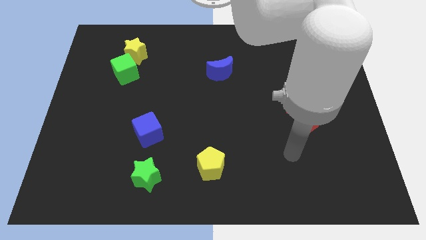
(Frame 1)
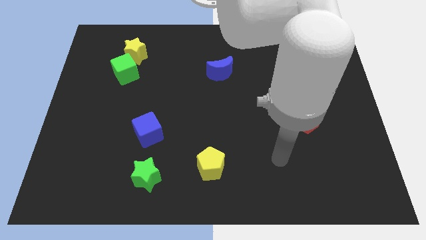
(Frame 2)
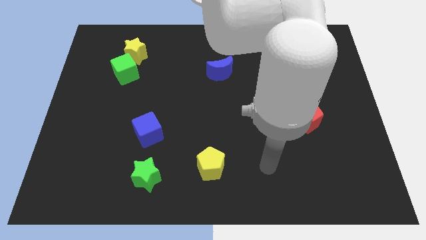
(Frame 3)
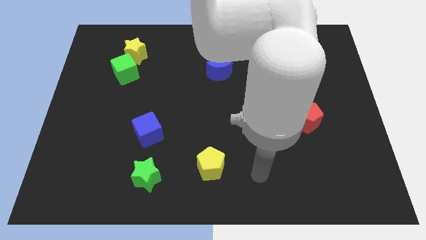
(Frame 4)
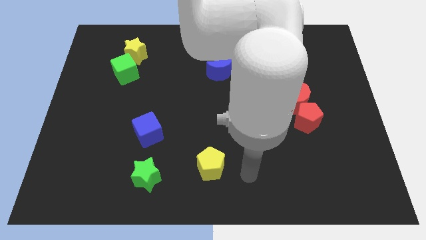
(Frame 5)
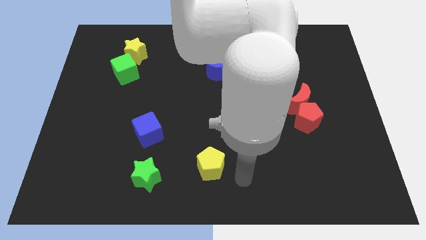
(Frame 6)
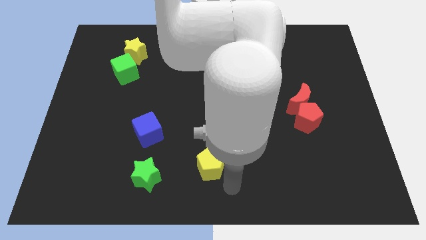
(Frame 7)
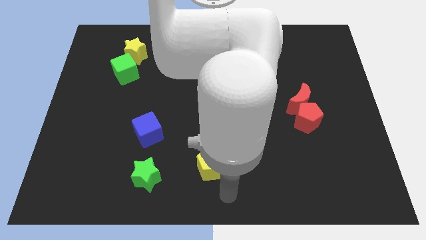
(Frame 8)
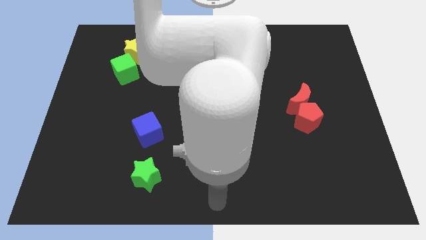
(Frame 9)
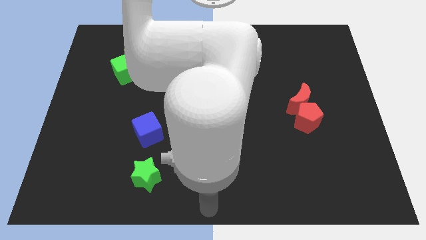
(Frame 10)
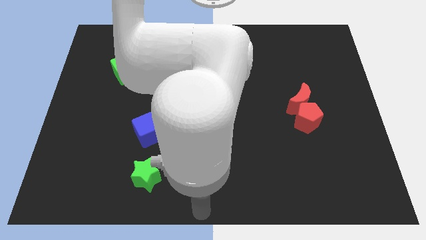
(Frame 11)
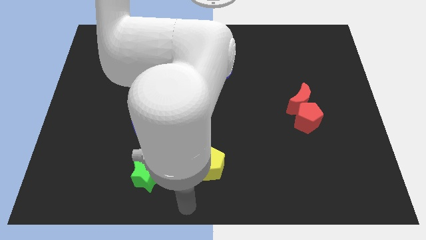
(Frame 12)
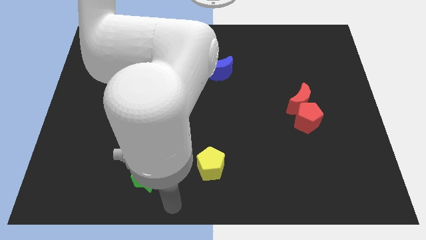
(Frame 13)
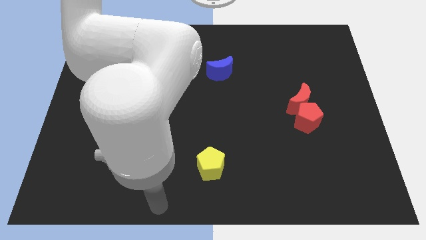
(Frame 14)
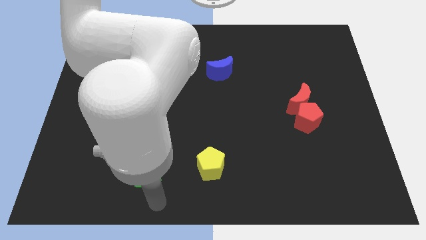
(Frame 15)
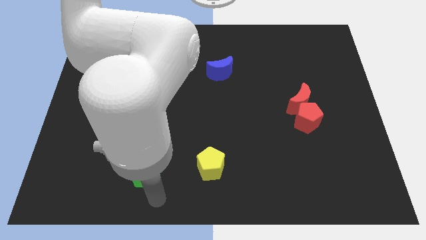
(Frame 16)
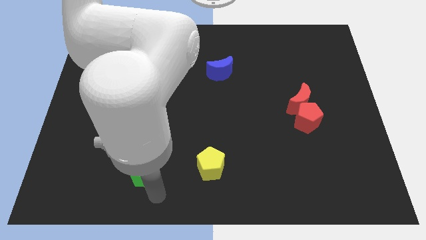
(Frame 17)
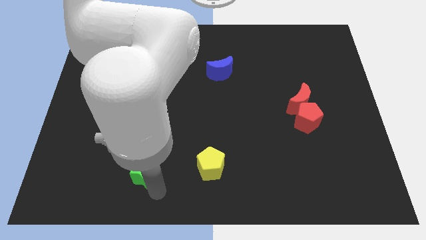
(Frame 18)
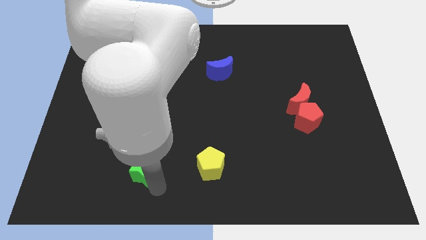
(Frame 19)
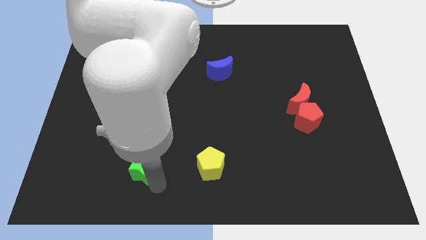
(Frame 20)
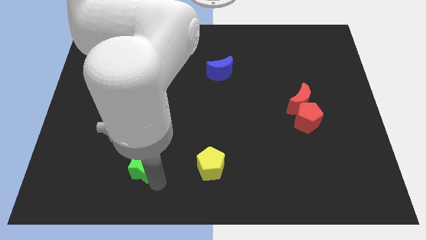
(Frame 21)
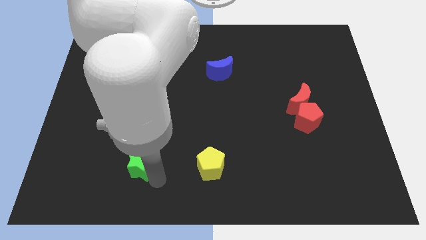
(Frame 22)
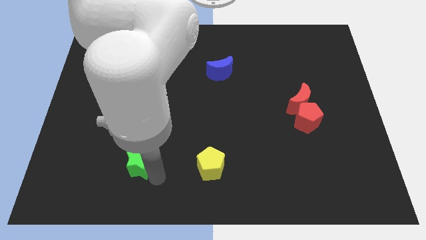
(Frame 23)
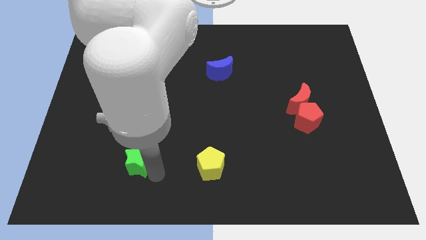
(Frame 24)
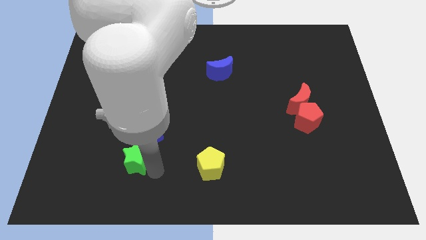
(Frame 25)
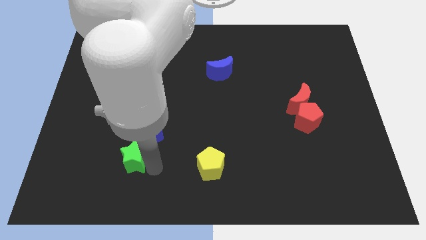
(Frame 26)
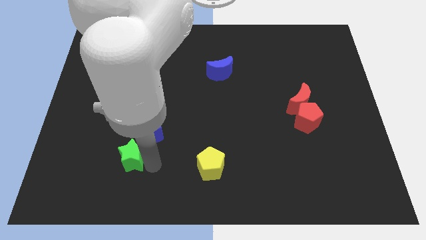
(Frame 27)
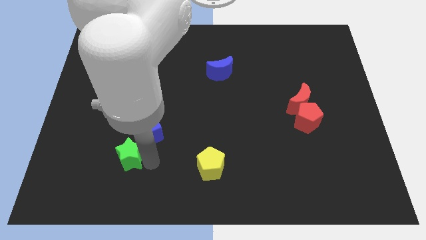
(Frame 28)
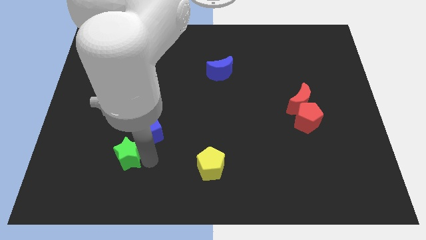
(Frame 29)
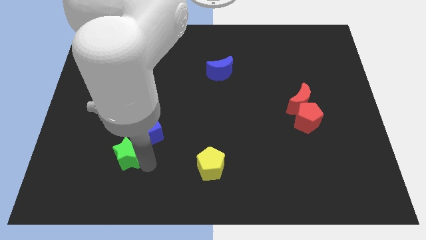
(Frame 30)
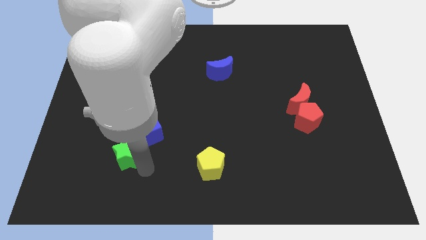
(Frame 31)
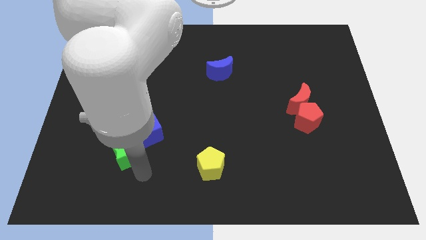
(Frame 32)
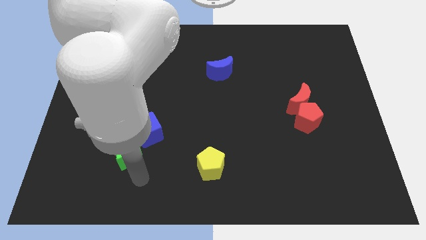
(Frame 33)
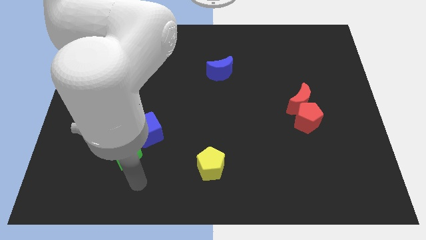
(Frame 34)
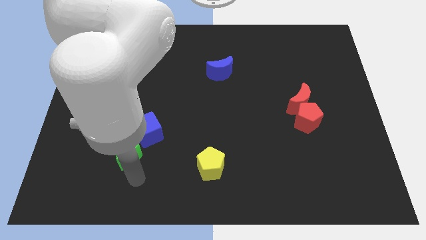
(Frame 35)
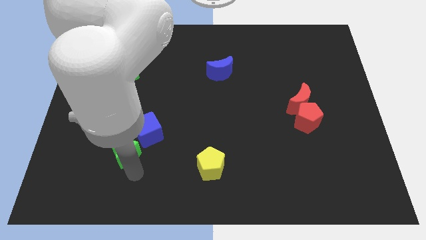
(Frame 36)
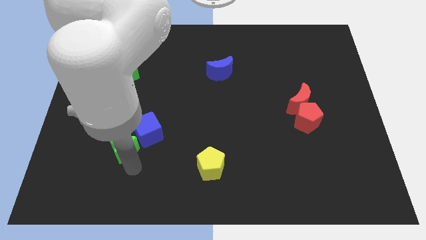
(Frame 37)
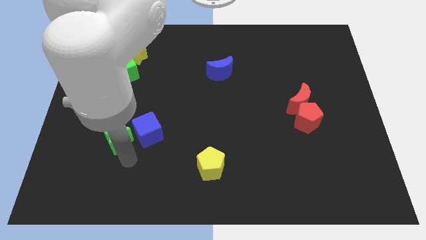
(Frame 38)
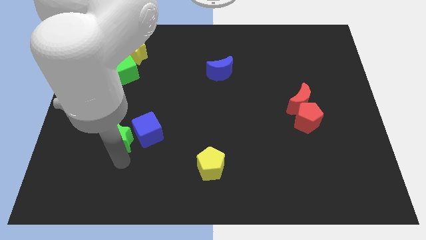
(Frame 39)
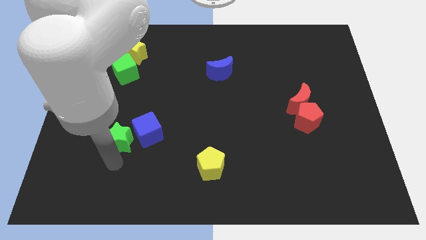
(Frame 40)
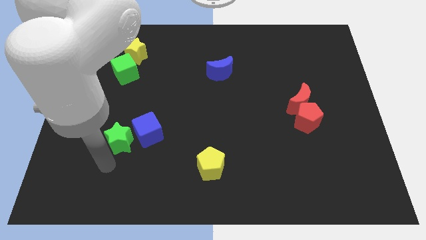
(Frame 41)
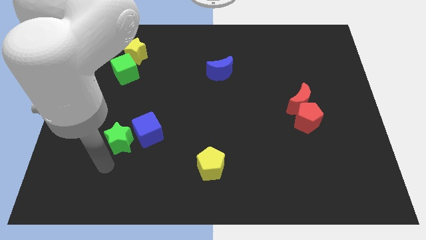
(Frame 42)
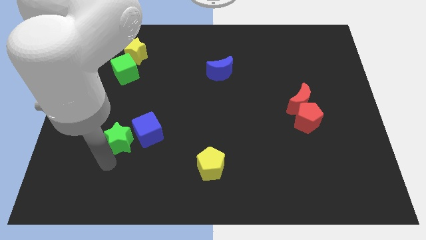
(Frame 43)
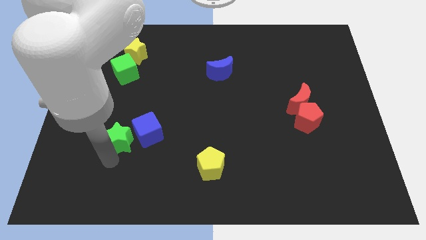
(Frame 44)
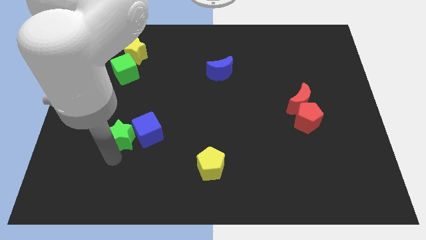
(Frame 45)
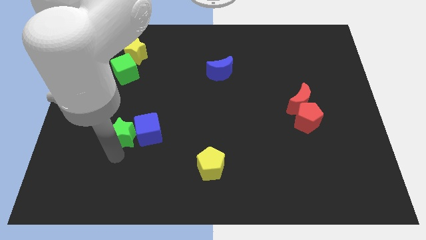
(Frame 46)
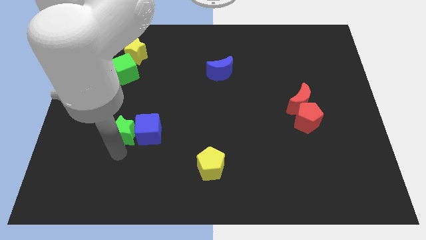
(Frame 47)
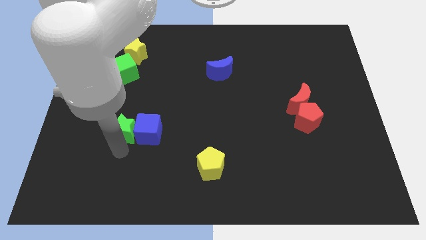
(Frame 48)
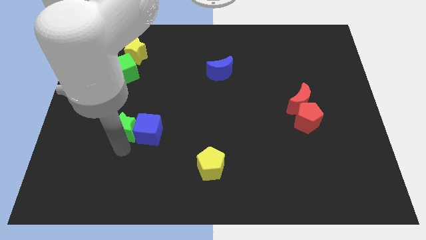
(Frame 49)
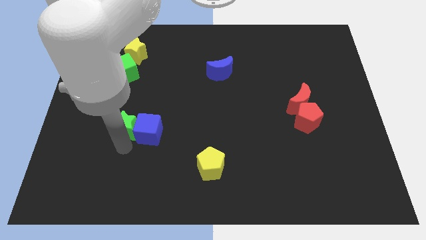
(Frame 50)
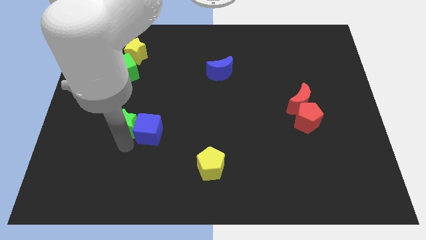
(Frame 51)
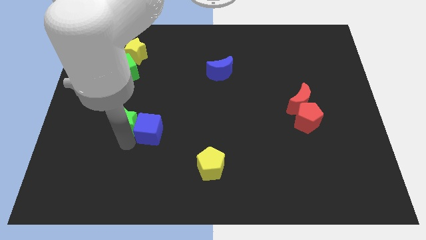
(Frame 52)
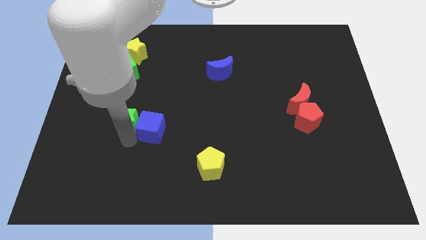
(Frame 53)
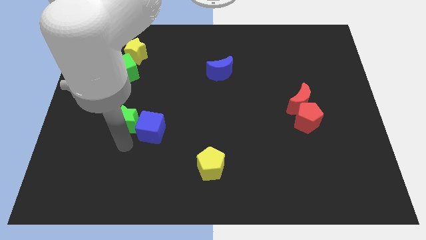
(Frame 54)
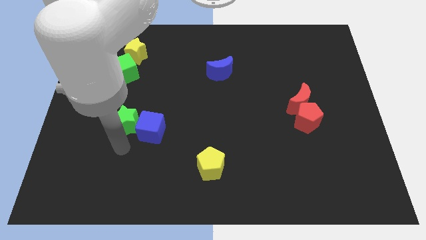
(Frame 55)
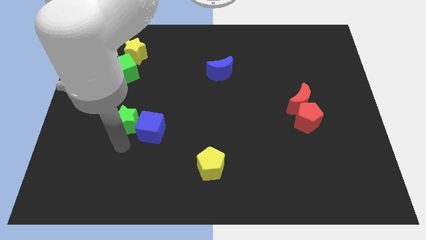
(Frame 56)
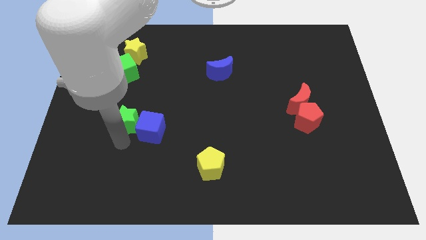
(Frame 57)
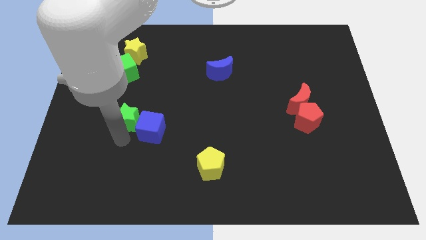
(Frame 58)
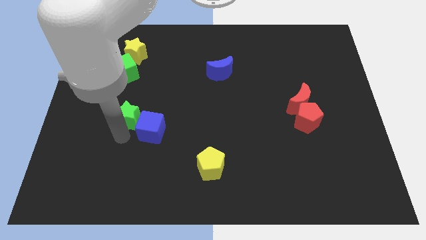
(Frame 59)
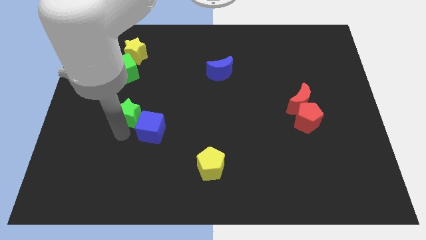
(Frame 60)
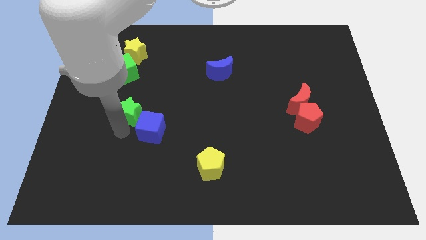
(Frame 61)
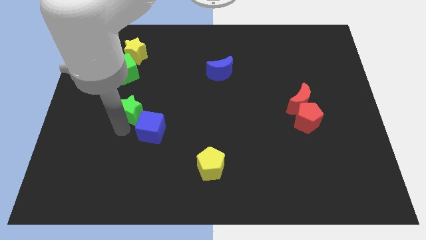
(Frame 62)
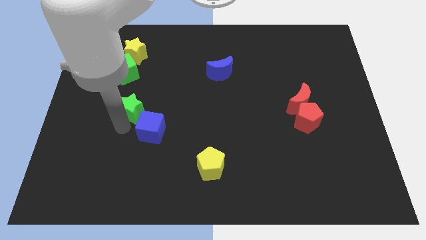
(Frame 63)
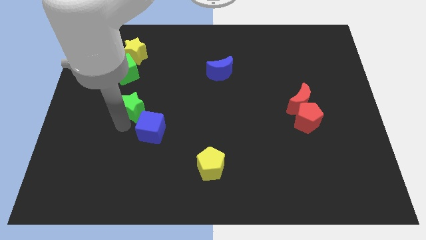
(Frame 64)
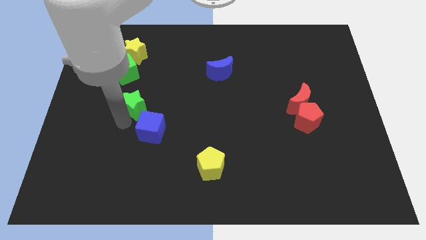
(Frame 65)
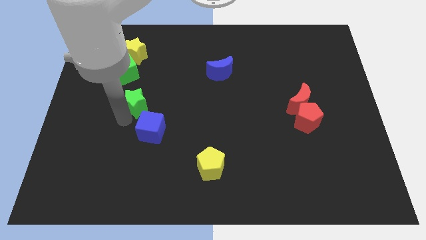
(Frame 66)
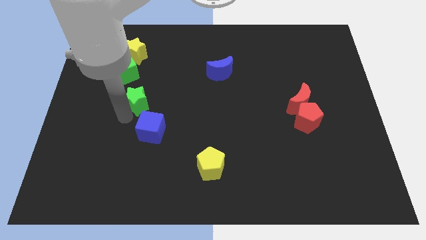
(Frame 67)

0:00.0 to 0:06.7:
put the green star diagonally down and to the right of the green cube

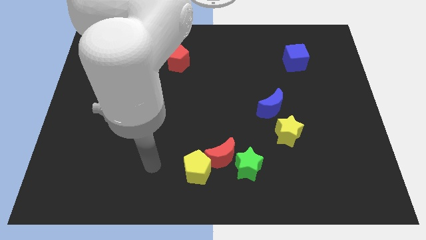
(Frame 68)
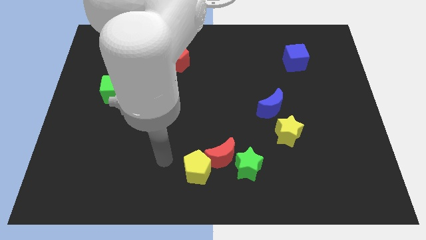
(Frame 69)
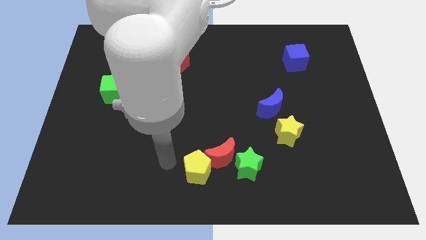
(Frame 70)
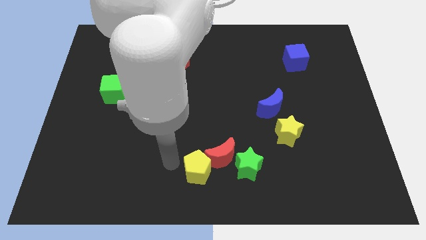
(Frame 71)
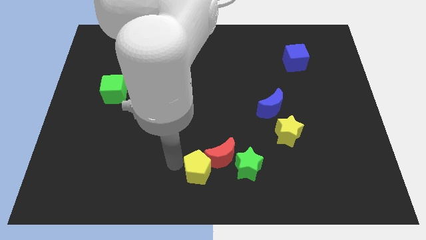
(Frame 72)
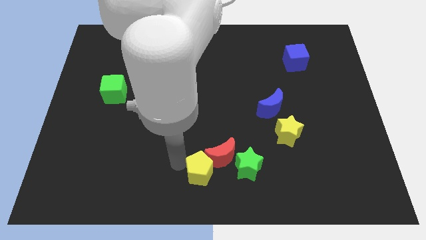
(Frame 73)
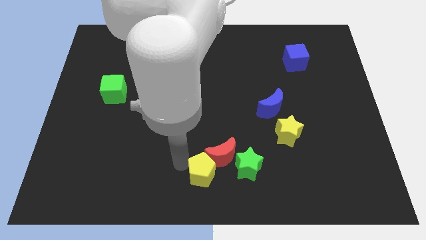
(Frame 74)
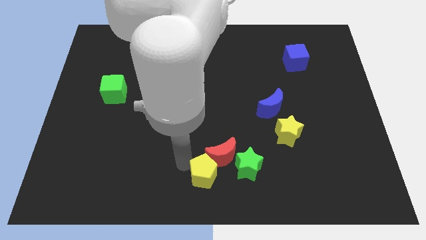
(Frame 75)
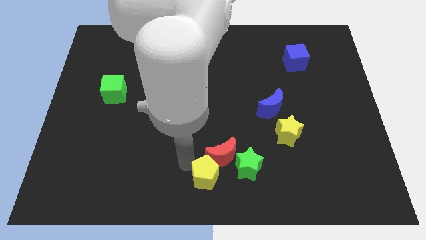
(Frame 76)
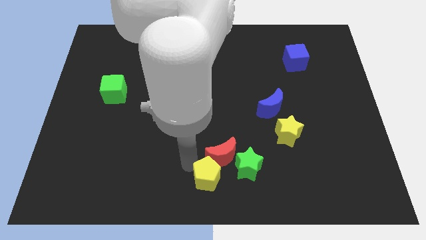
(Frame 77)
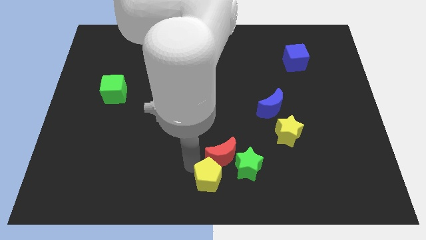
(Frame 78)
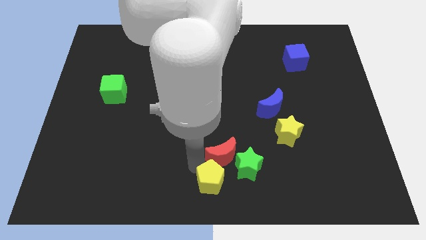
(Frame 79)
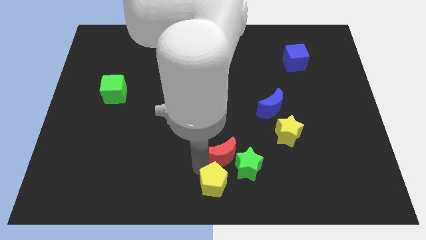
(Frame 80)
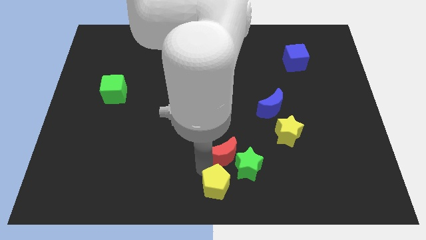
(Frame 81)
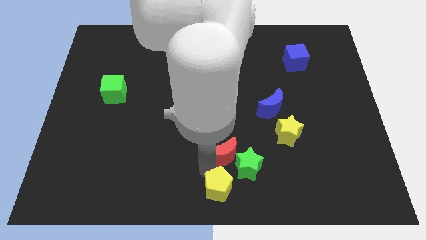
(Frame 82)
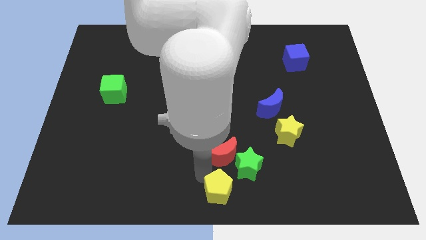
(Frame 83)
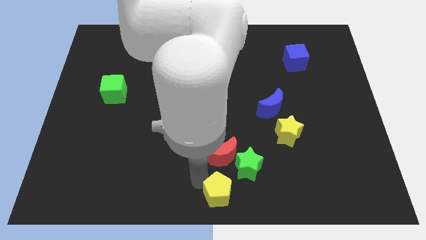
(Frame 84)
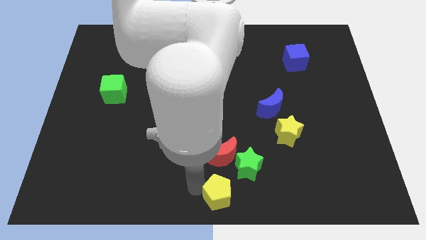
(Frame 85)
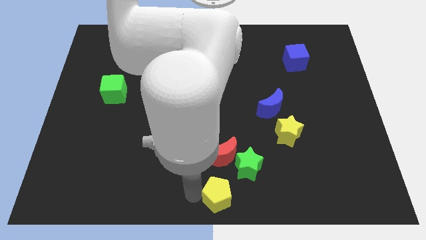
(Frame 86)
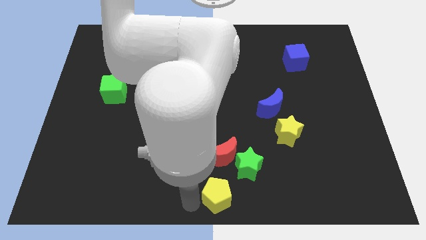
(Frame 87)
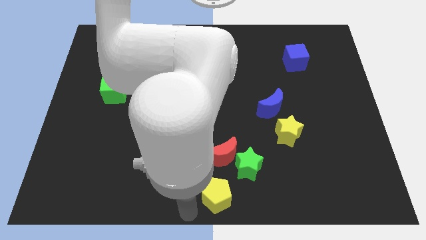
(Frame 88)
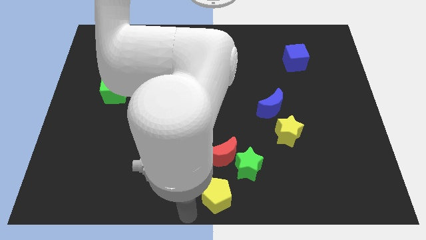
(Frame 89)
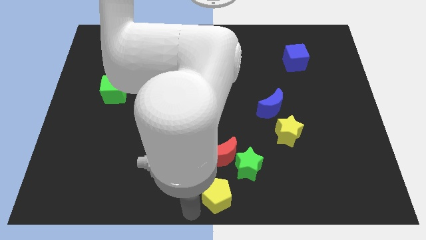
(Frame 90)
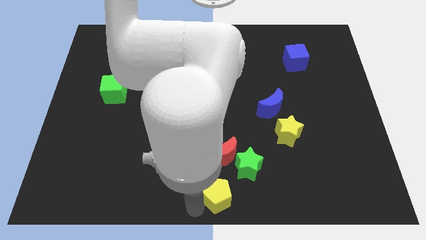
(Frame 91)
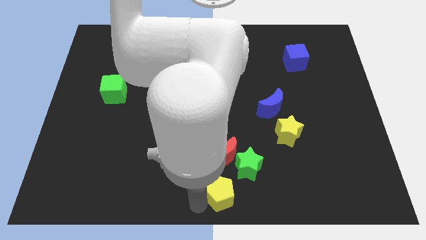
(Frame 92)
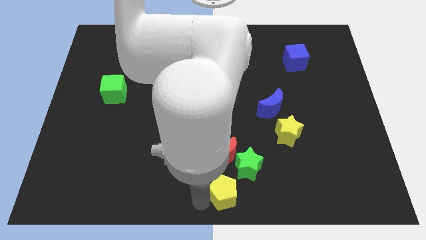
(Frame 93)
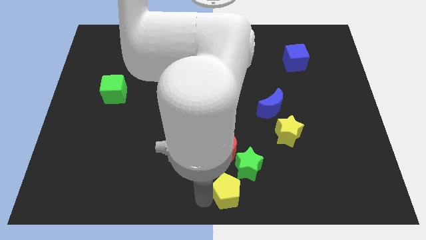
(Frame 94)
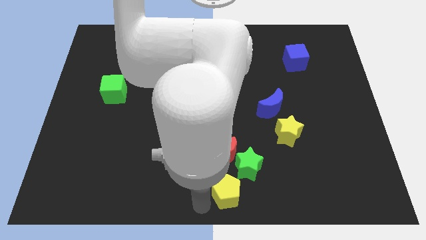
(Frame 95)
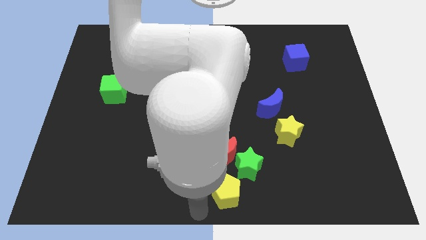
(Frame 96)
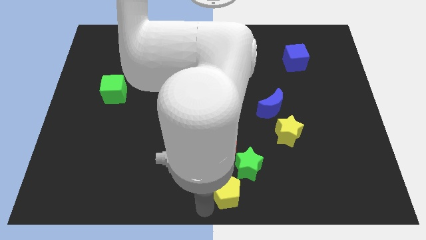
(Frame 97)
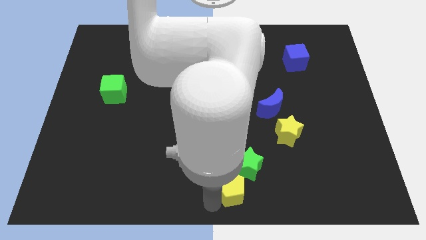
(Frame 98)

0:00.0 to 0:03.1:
push the yellow pentagon to the bottom right side of the red moon
